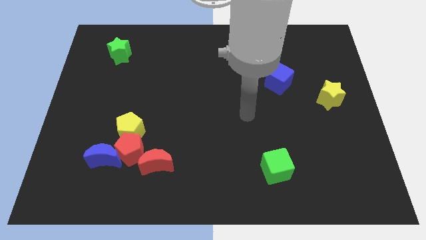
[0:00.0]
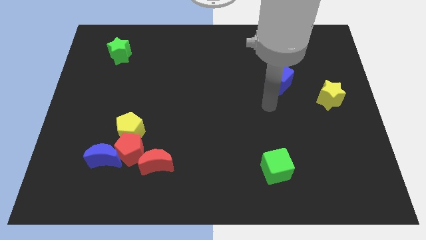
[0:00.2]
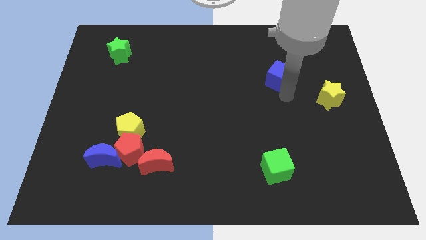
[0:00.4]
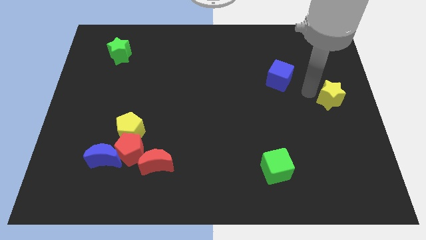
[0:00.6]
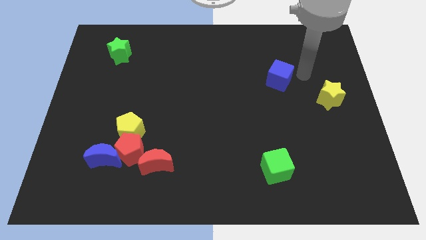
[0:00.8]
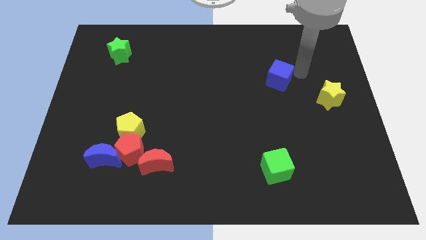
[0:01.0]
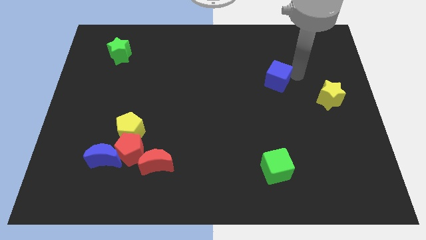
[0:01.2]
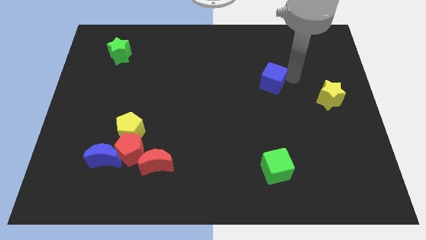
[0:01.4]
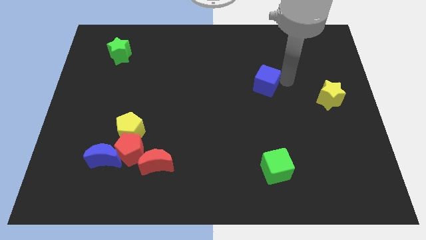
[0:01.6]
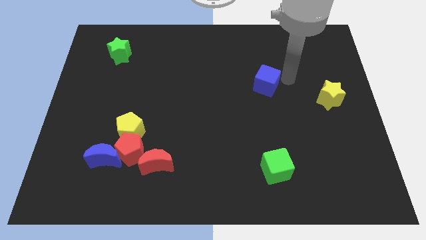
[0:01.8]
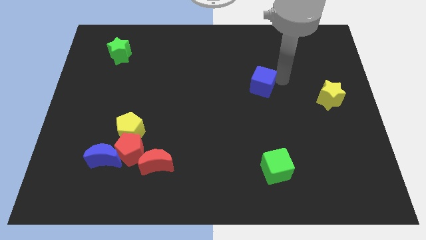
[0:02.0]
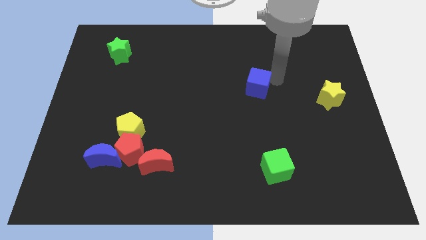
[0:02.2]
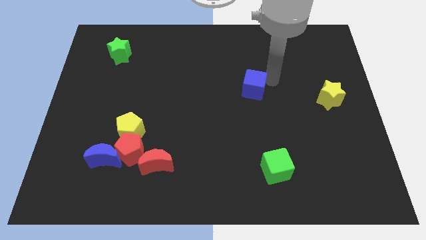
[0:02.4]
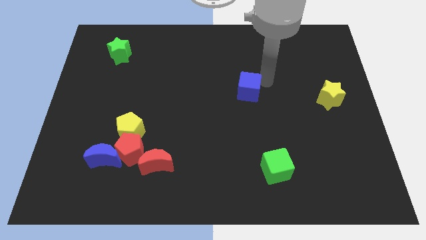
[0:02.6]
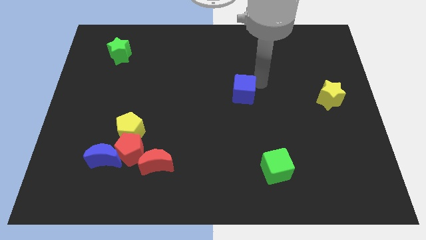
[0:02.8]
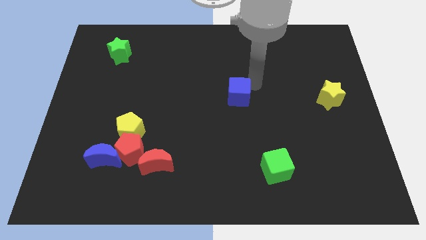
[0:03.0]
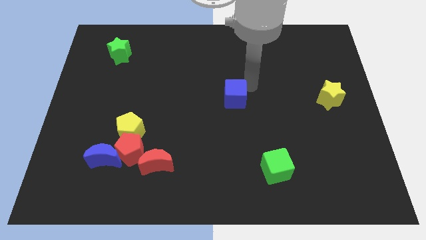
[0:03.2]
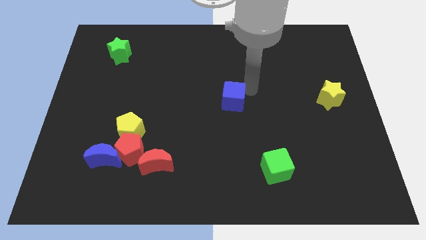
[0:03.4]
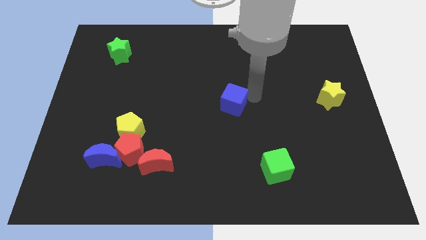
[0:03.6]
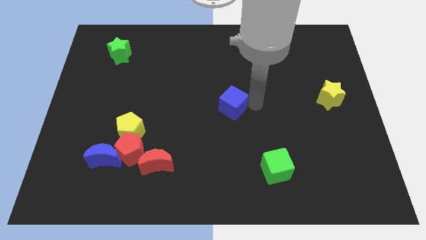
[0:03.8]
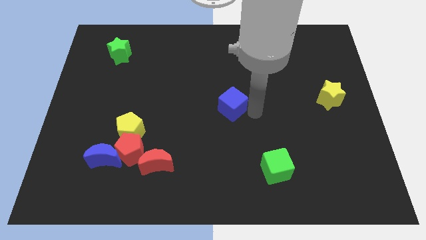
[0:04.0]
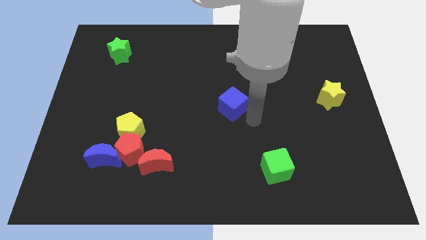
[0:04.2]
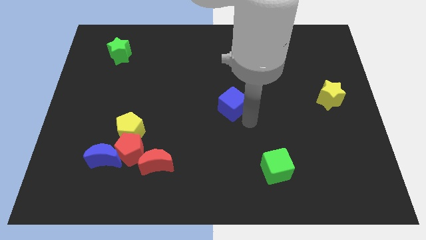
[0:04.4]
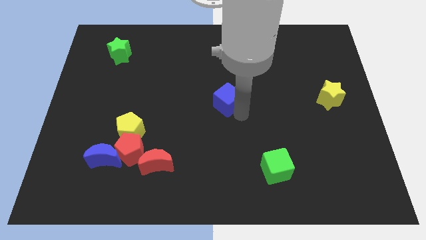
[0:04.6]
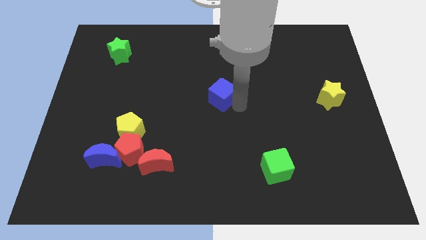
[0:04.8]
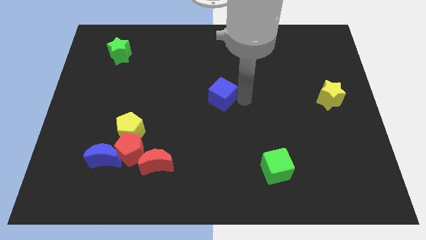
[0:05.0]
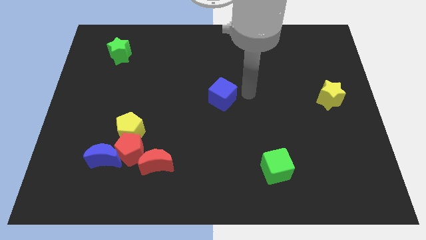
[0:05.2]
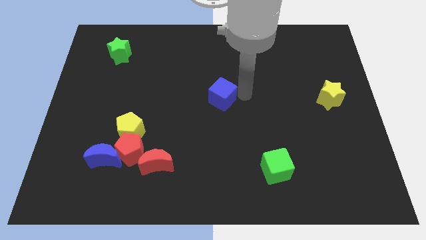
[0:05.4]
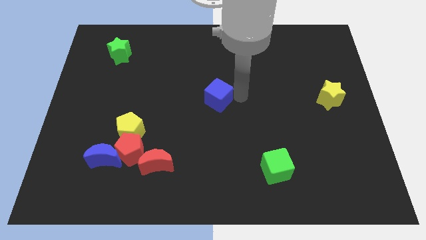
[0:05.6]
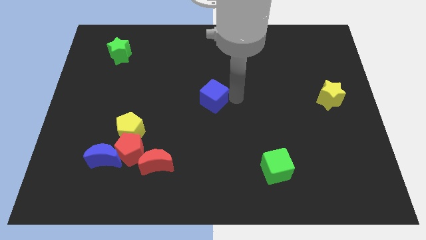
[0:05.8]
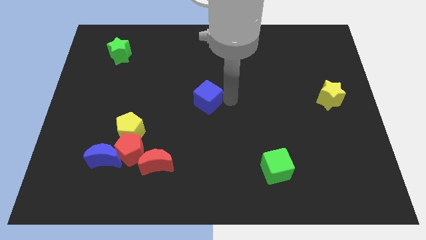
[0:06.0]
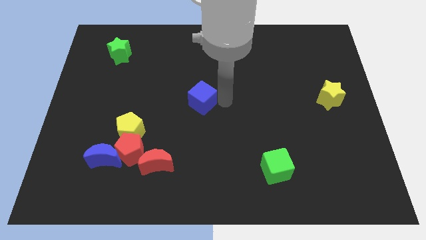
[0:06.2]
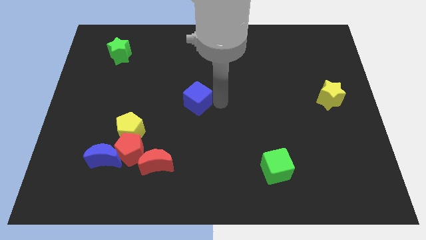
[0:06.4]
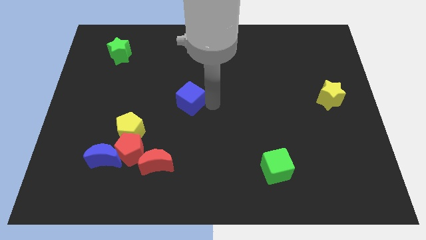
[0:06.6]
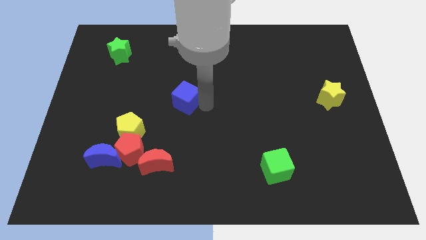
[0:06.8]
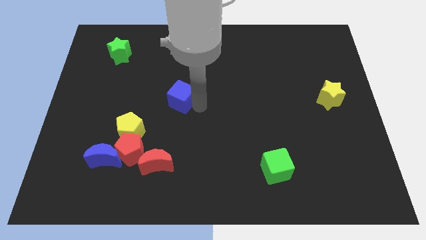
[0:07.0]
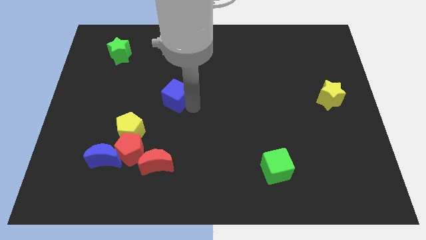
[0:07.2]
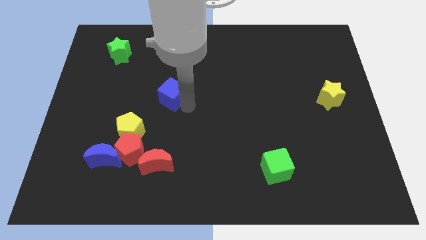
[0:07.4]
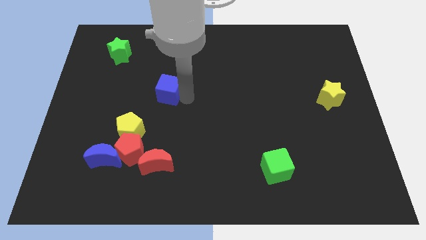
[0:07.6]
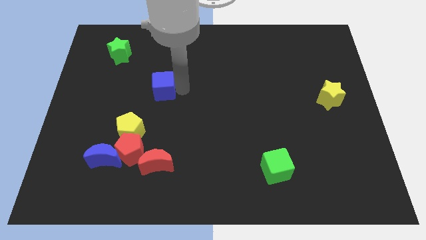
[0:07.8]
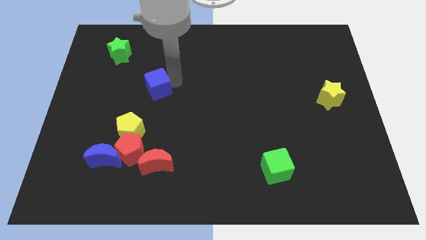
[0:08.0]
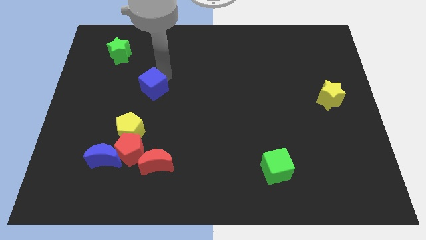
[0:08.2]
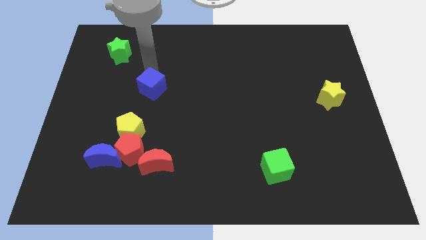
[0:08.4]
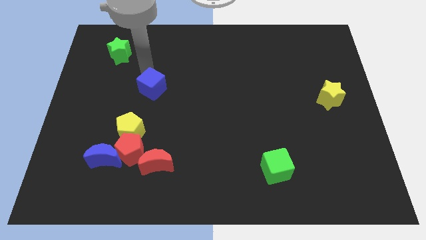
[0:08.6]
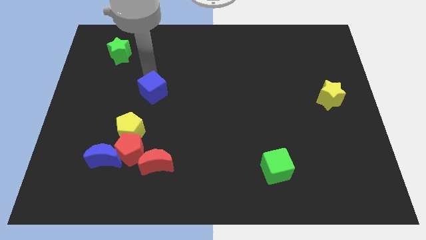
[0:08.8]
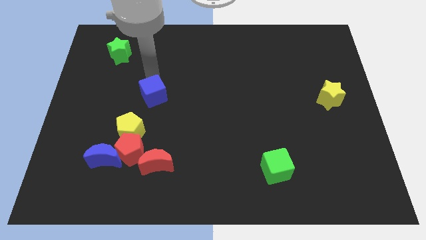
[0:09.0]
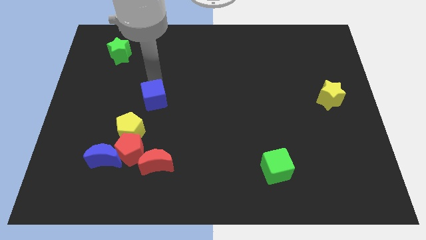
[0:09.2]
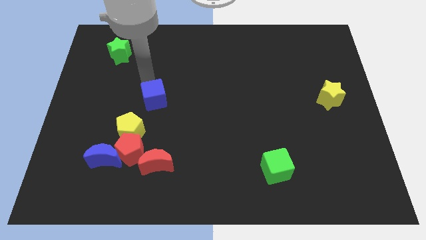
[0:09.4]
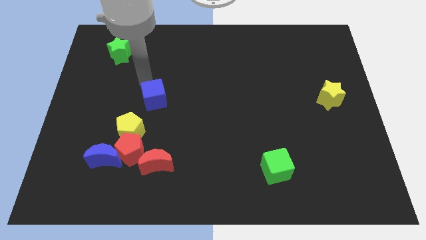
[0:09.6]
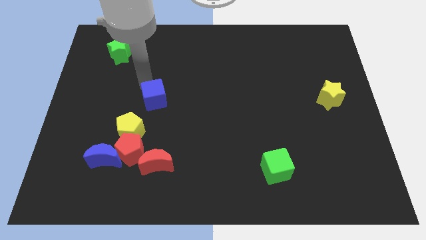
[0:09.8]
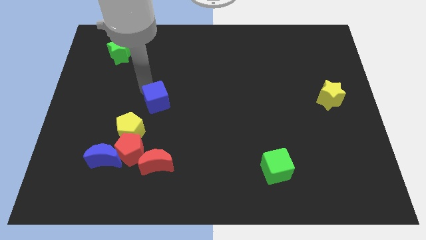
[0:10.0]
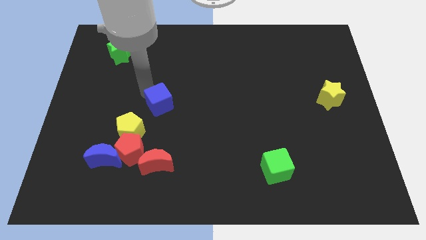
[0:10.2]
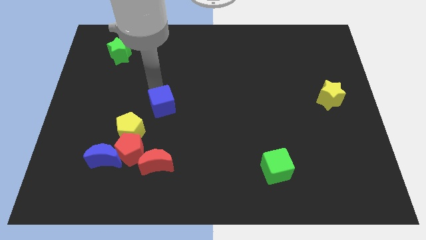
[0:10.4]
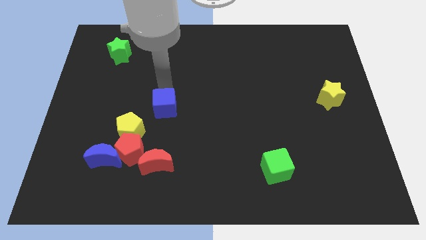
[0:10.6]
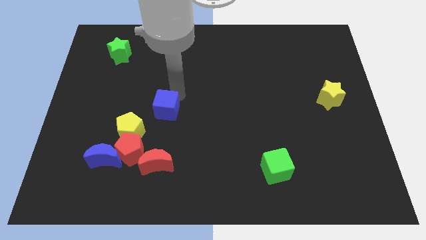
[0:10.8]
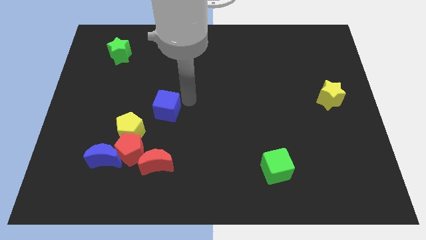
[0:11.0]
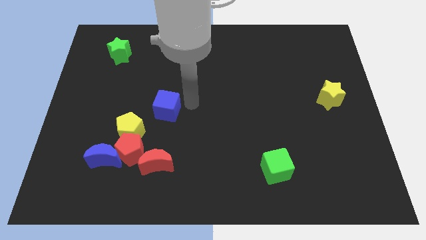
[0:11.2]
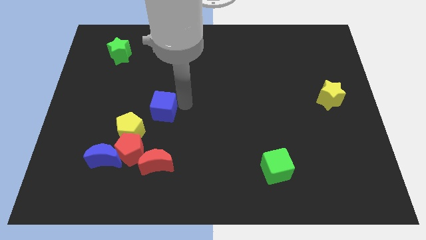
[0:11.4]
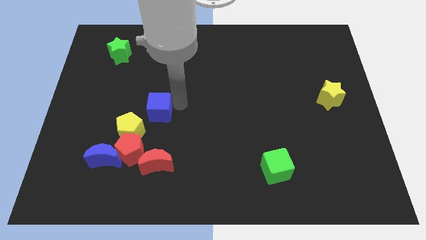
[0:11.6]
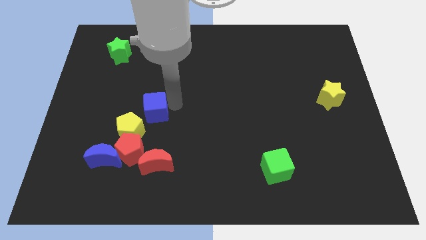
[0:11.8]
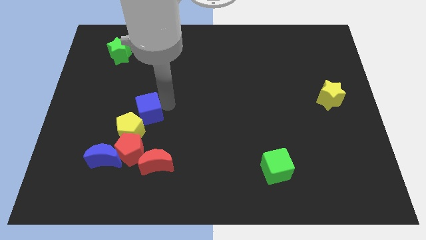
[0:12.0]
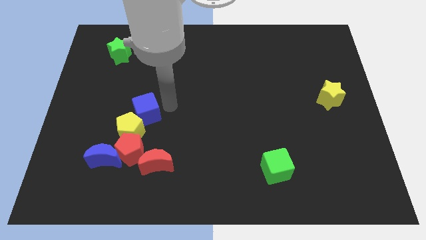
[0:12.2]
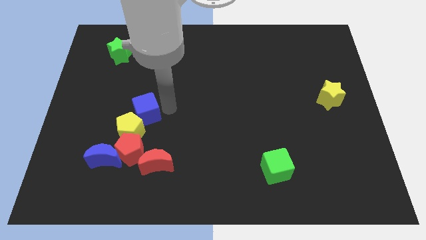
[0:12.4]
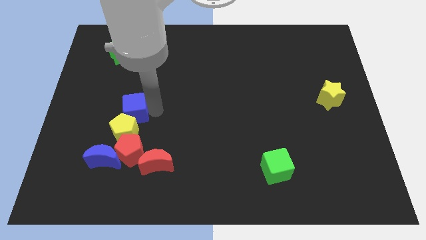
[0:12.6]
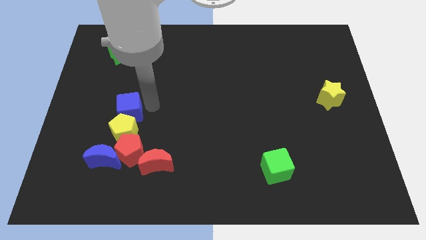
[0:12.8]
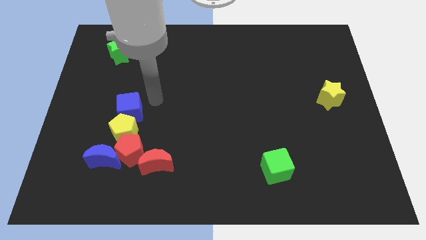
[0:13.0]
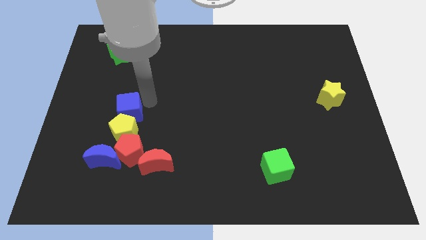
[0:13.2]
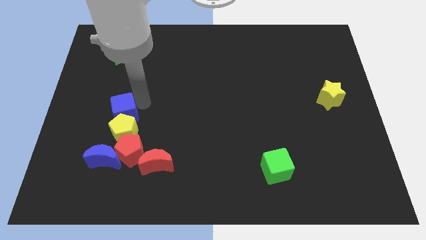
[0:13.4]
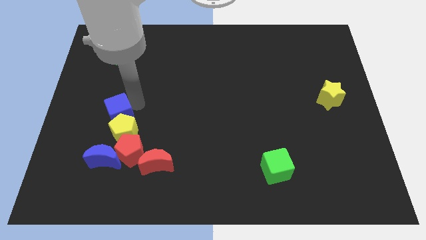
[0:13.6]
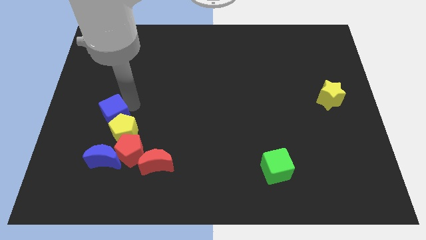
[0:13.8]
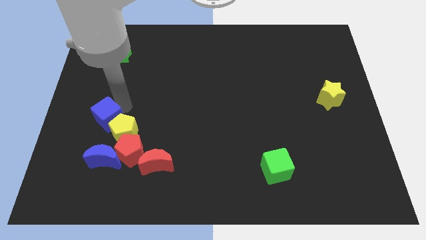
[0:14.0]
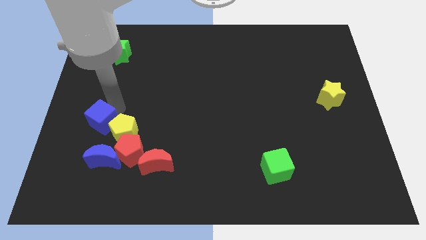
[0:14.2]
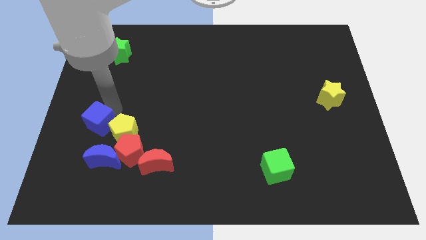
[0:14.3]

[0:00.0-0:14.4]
slide the blue cube to the top left side of the blue moon
